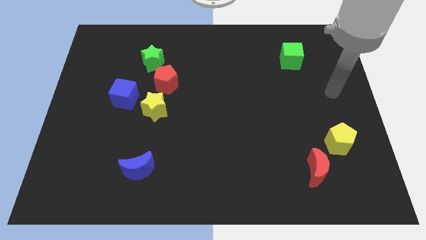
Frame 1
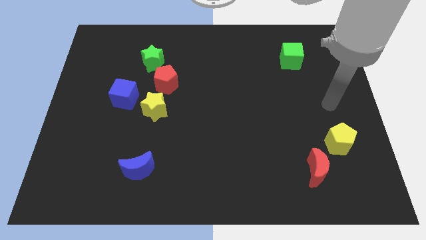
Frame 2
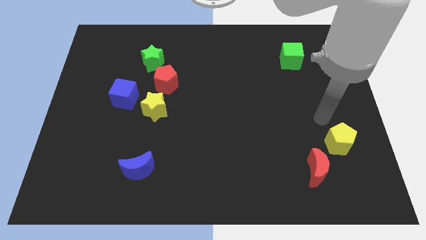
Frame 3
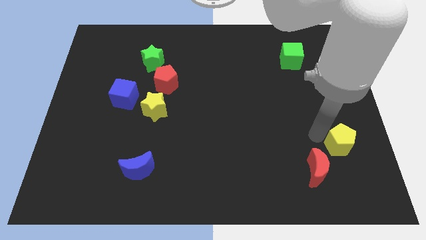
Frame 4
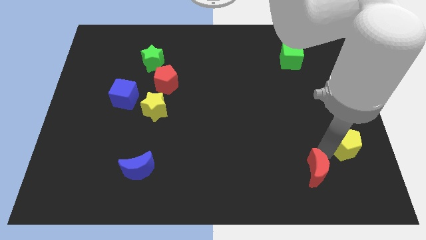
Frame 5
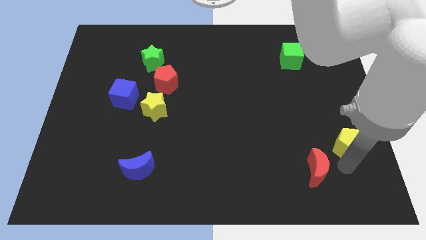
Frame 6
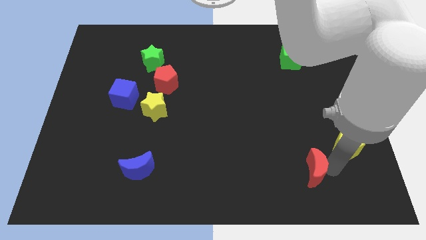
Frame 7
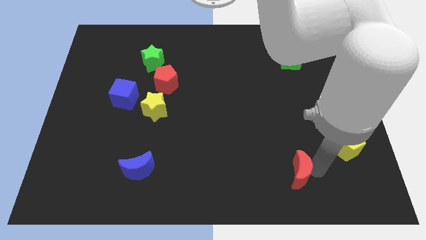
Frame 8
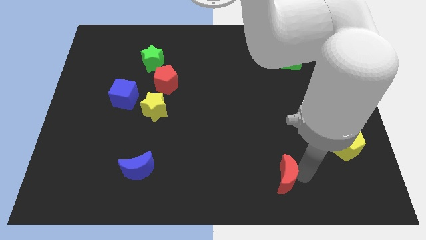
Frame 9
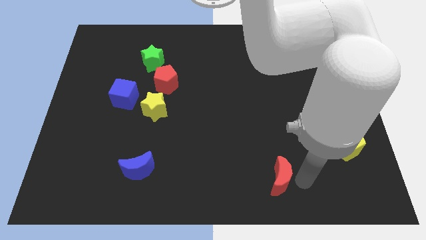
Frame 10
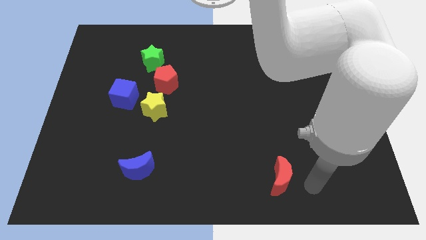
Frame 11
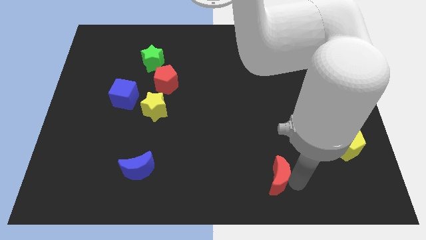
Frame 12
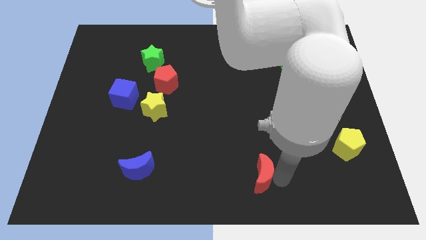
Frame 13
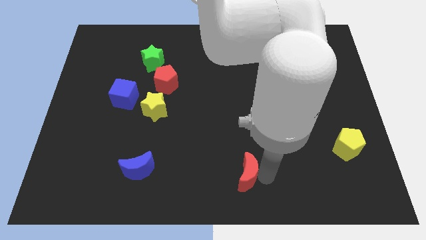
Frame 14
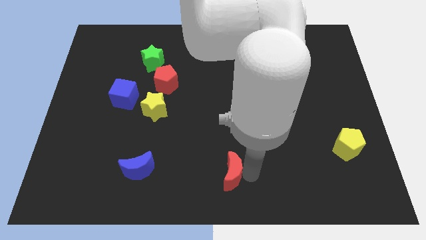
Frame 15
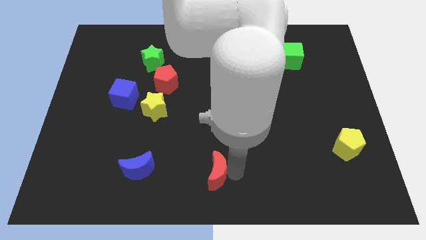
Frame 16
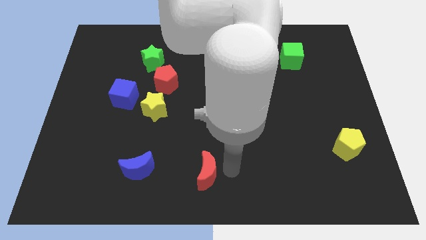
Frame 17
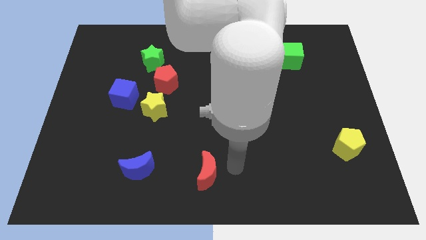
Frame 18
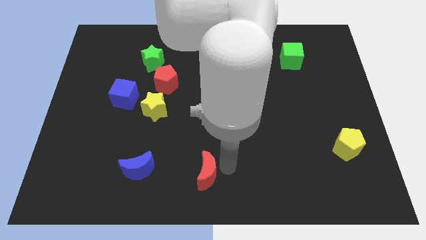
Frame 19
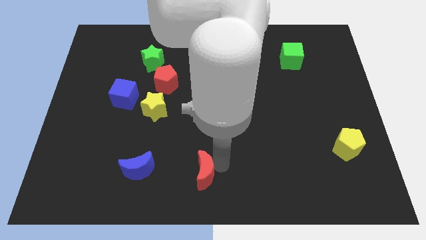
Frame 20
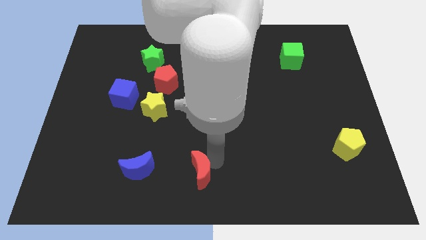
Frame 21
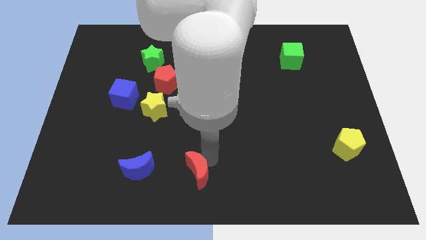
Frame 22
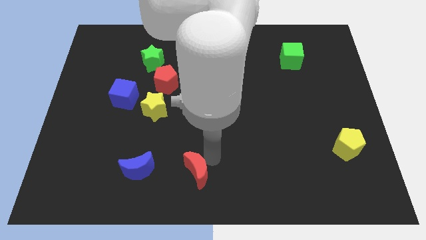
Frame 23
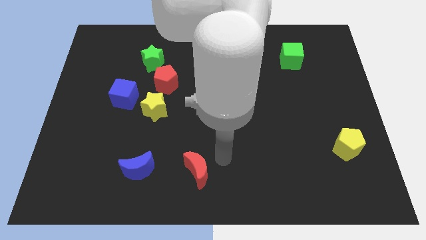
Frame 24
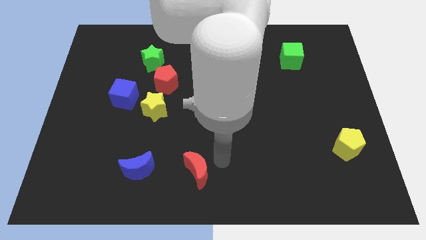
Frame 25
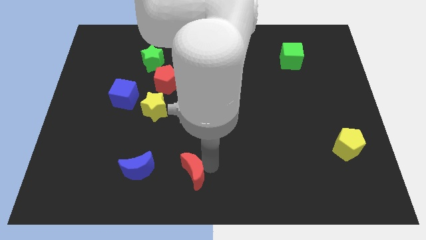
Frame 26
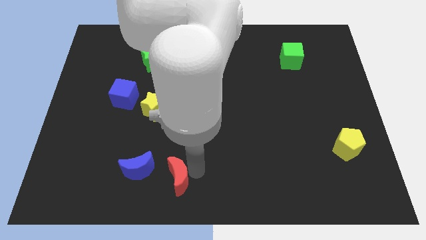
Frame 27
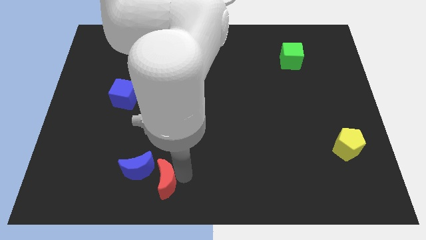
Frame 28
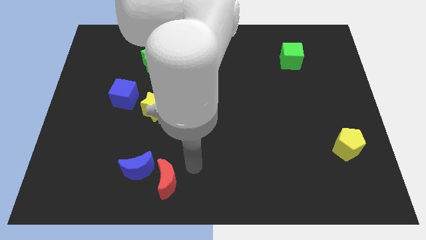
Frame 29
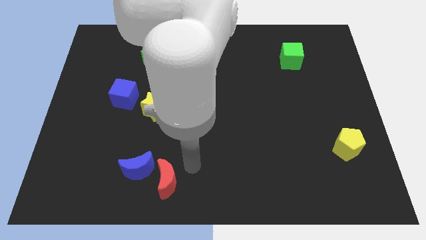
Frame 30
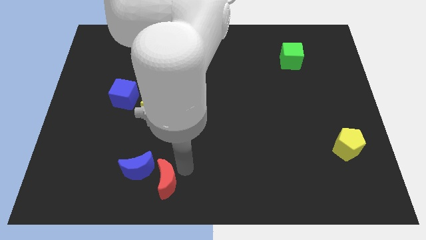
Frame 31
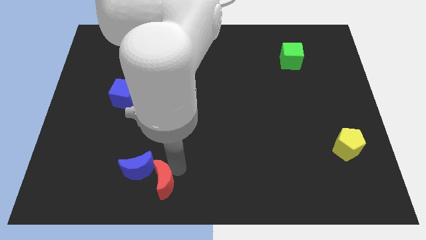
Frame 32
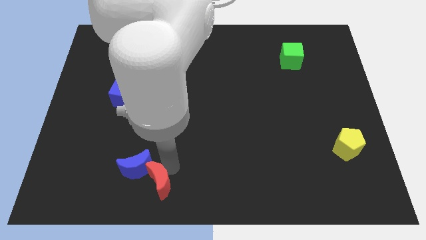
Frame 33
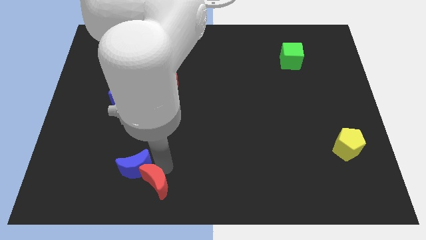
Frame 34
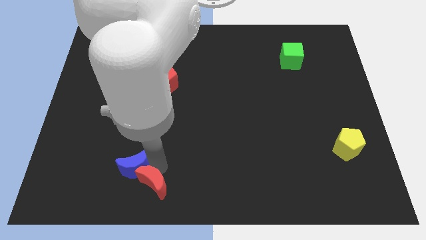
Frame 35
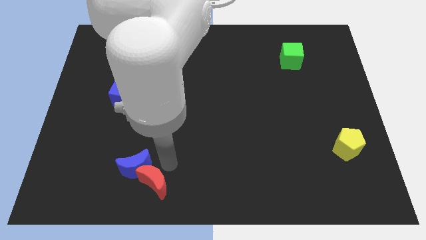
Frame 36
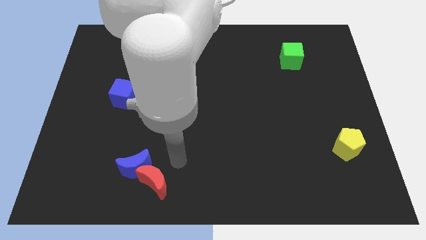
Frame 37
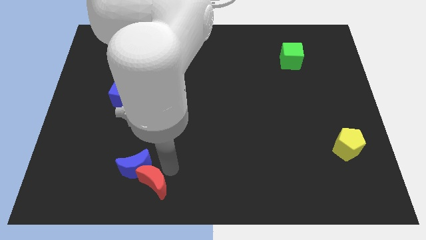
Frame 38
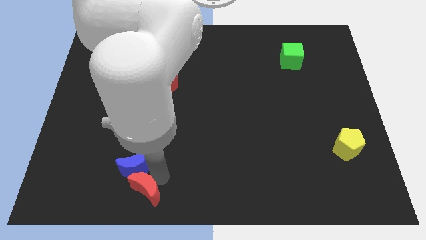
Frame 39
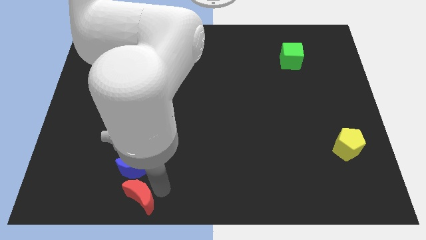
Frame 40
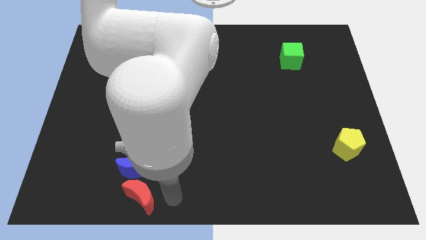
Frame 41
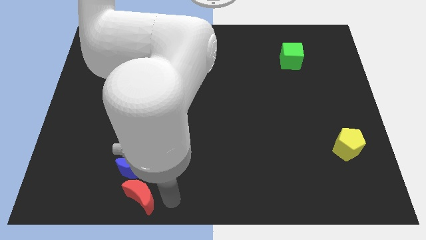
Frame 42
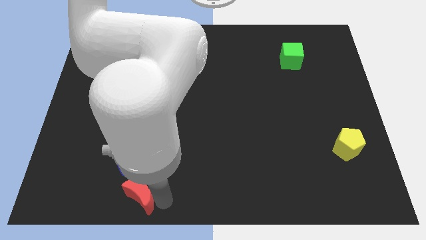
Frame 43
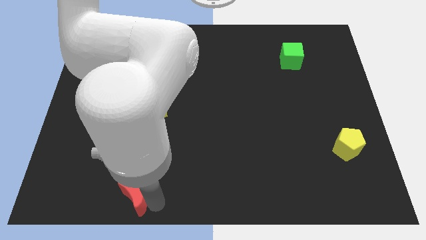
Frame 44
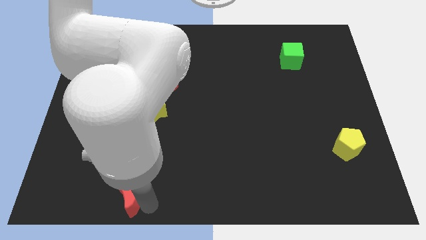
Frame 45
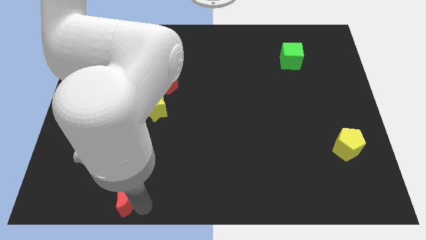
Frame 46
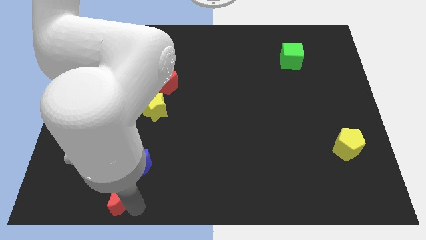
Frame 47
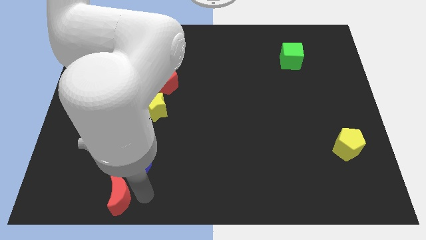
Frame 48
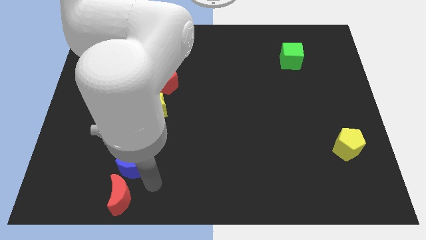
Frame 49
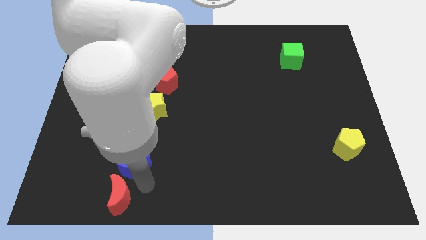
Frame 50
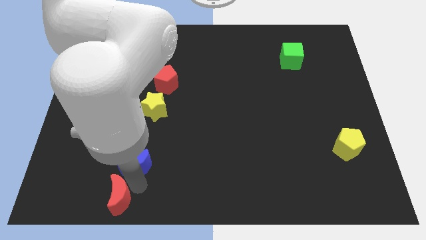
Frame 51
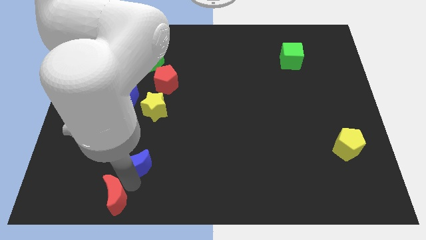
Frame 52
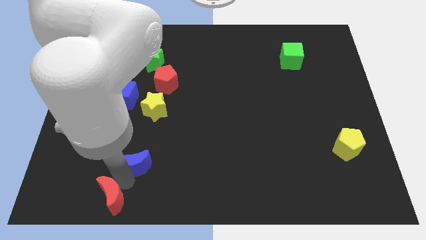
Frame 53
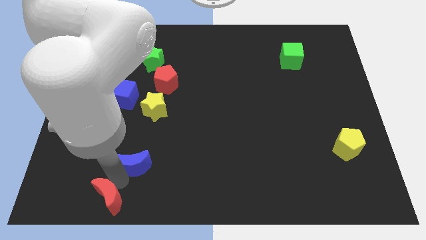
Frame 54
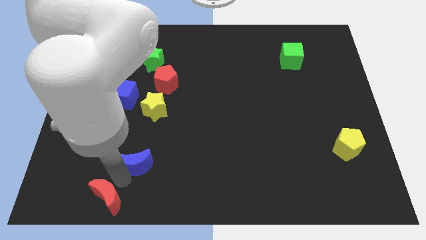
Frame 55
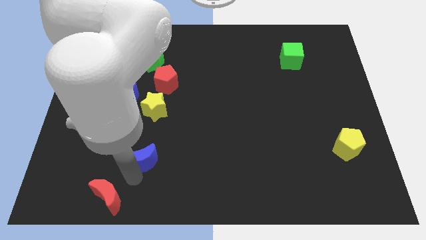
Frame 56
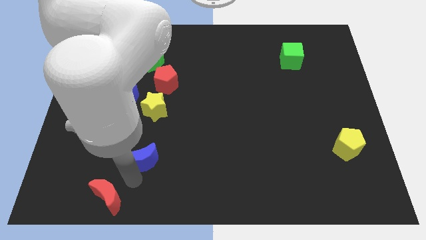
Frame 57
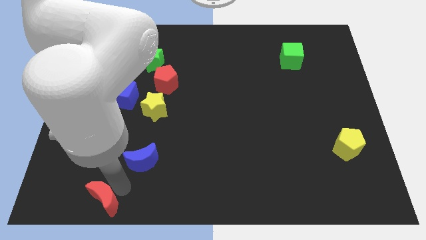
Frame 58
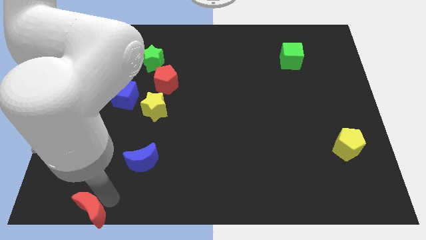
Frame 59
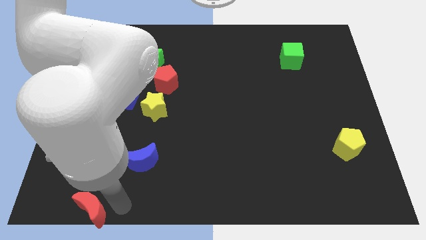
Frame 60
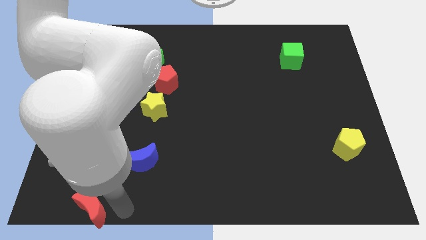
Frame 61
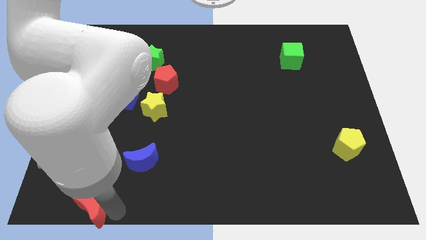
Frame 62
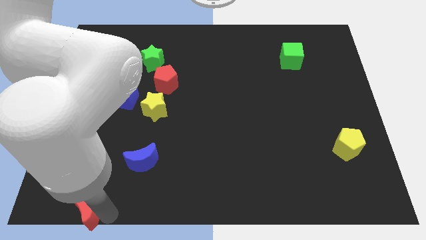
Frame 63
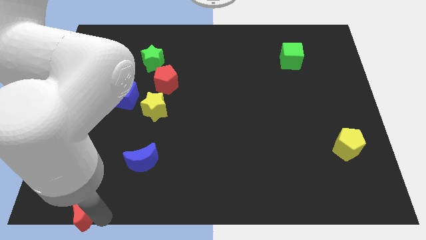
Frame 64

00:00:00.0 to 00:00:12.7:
slide the red moon to the bottom left of the board

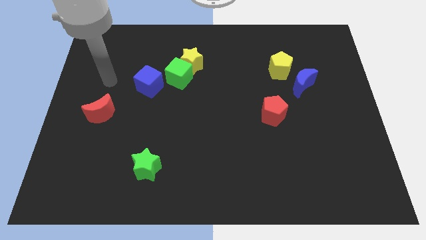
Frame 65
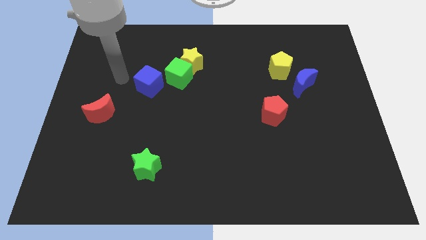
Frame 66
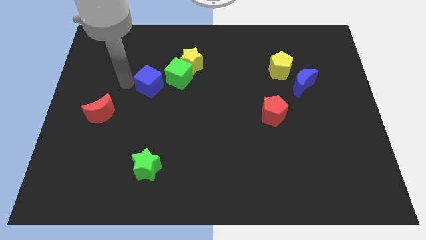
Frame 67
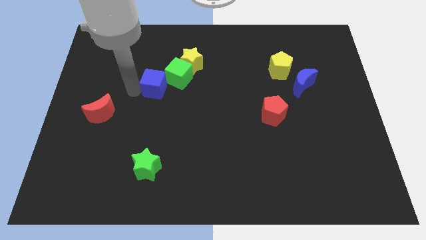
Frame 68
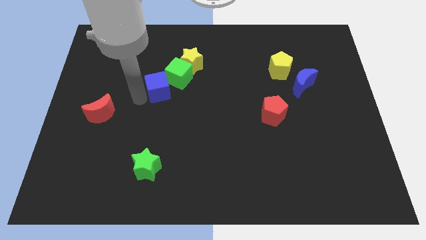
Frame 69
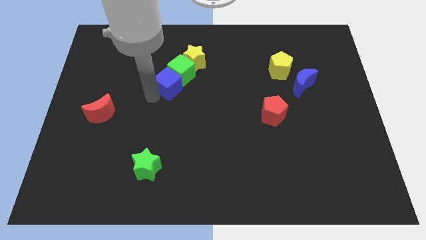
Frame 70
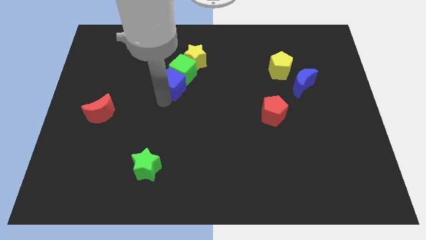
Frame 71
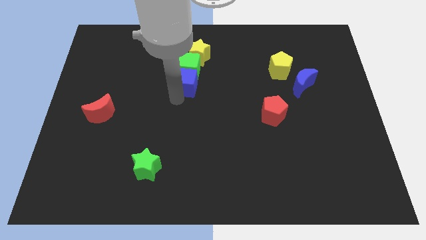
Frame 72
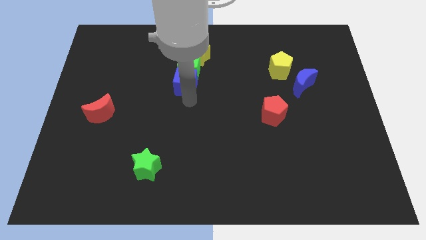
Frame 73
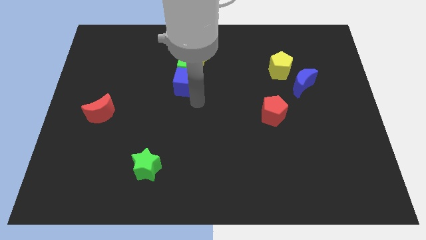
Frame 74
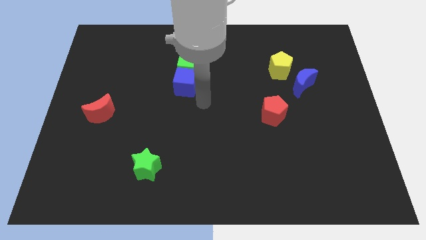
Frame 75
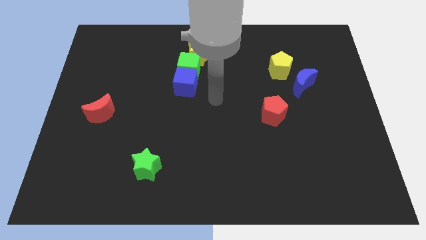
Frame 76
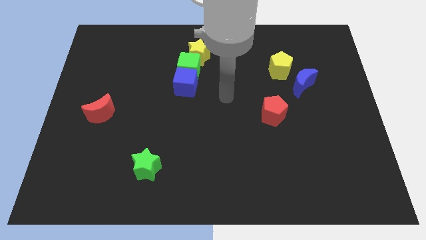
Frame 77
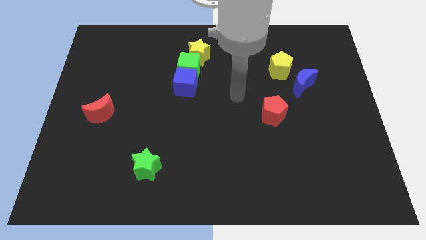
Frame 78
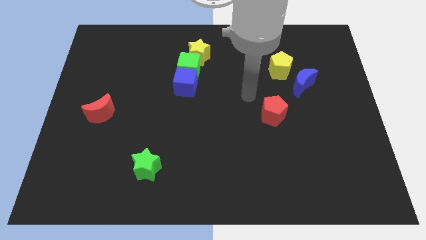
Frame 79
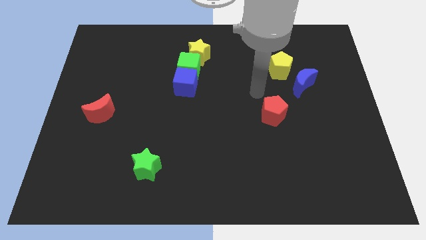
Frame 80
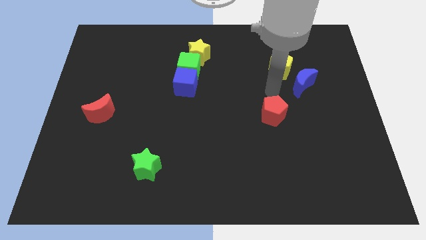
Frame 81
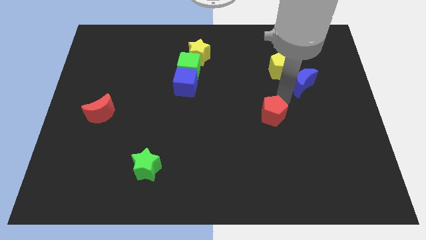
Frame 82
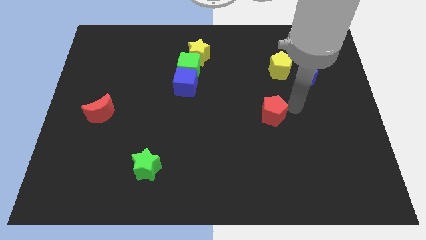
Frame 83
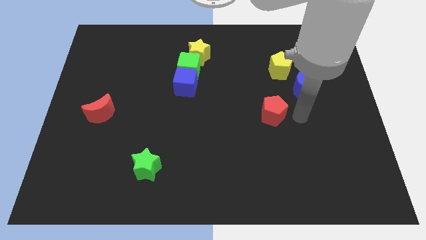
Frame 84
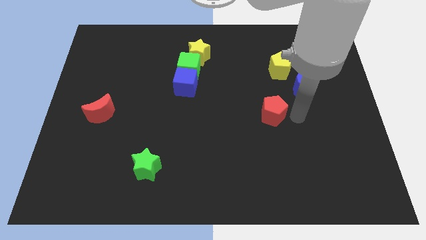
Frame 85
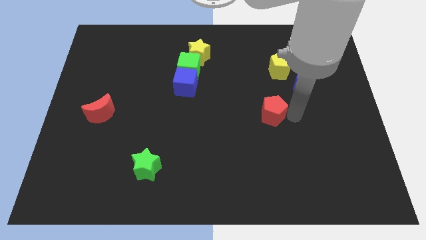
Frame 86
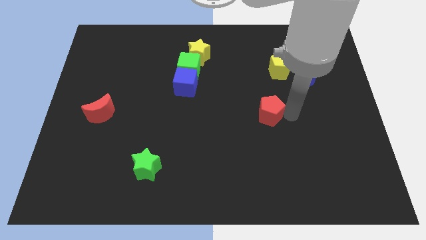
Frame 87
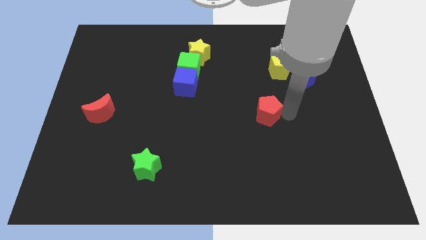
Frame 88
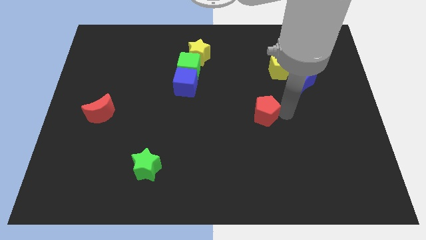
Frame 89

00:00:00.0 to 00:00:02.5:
push the red pentagon to the middle
